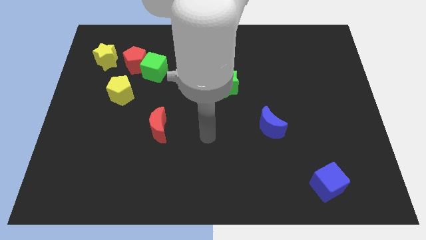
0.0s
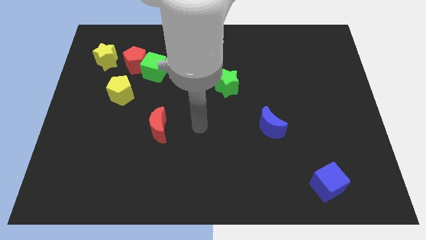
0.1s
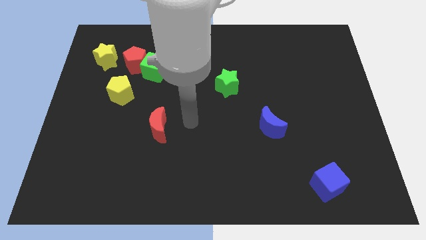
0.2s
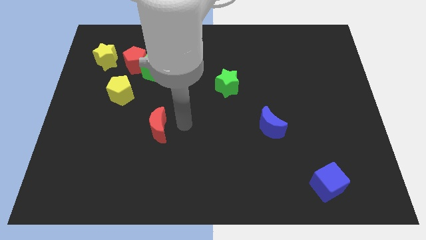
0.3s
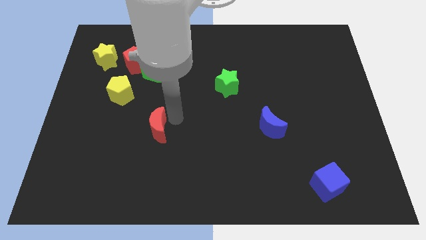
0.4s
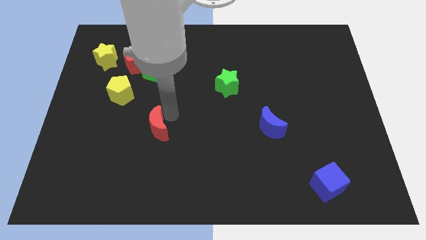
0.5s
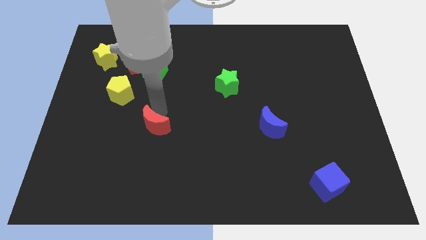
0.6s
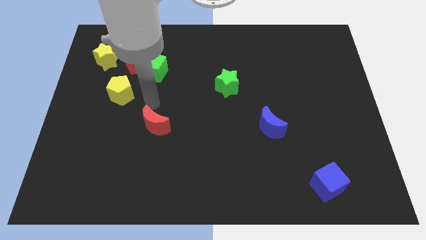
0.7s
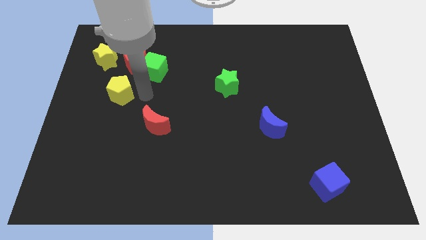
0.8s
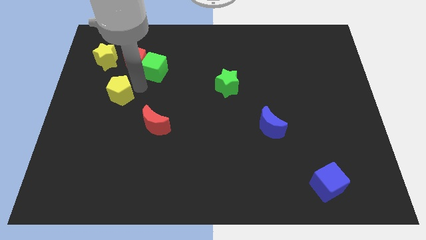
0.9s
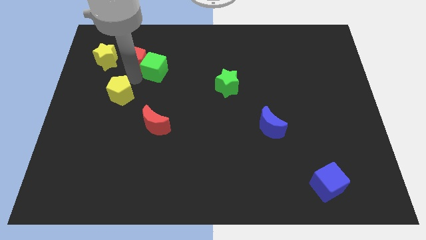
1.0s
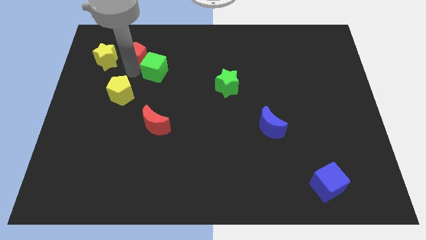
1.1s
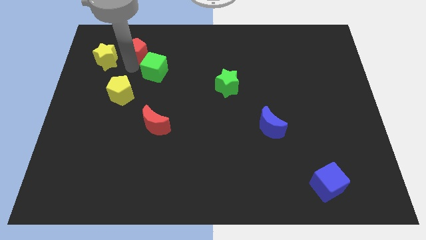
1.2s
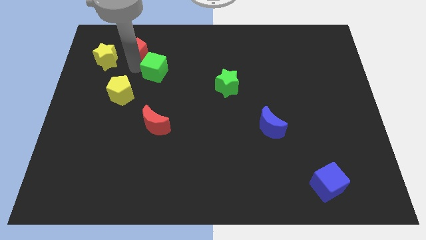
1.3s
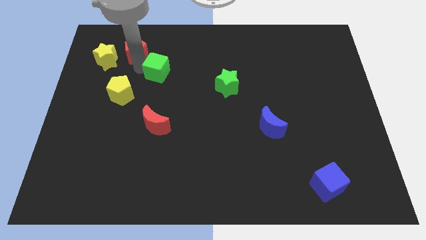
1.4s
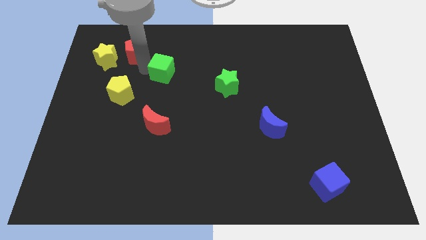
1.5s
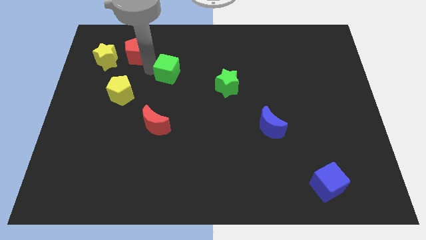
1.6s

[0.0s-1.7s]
separate the green cube from the red pentagon

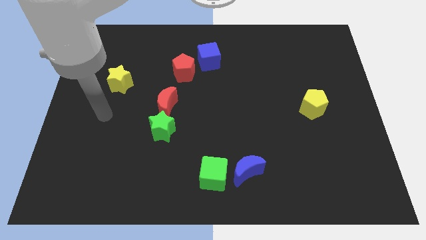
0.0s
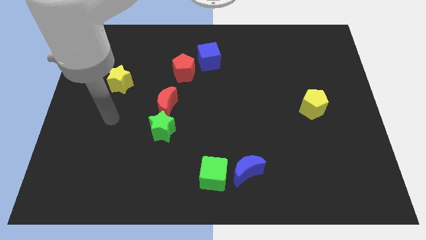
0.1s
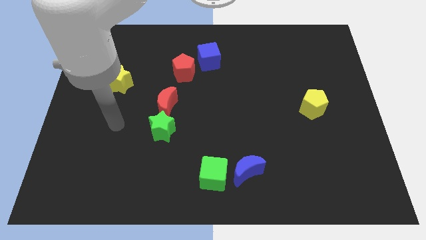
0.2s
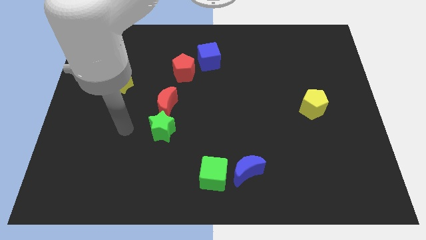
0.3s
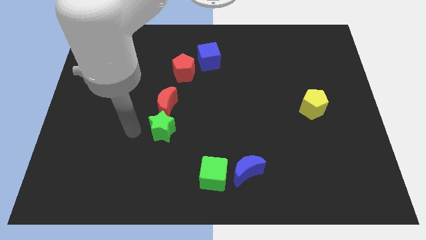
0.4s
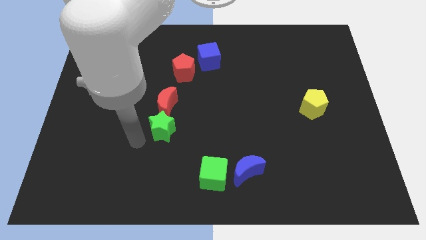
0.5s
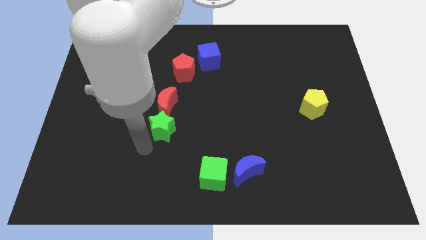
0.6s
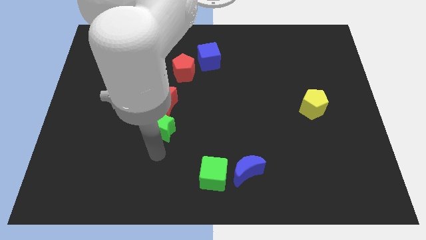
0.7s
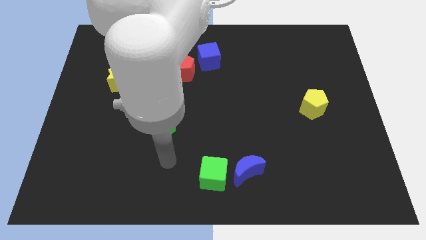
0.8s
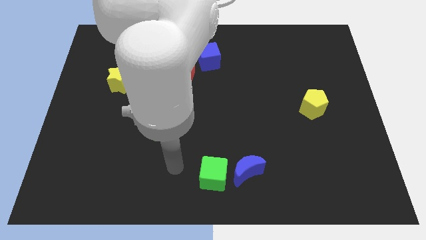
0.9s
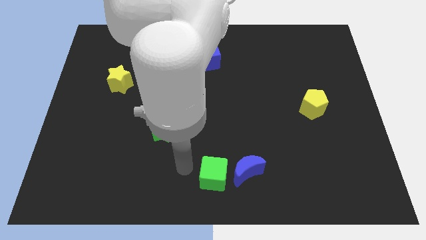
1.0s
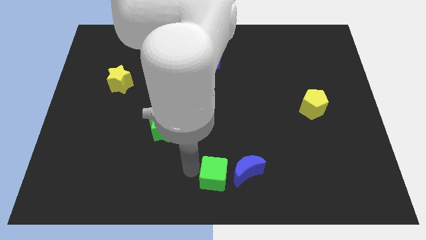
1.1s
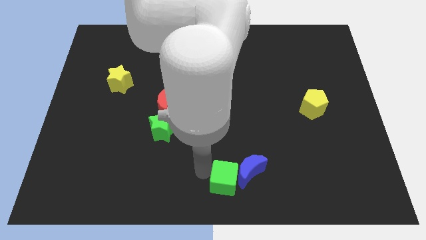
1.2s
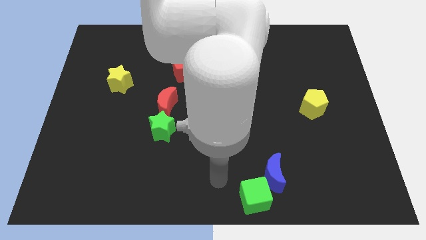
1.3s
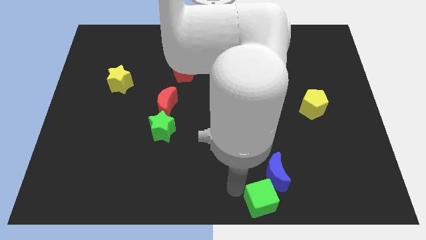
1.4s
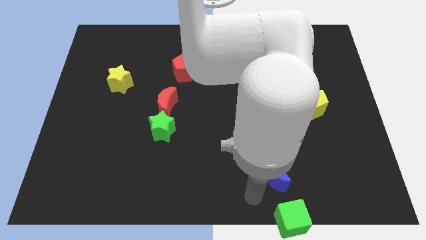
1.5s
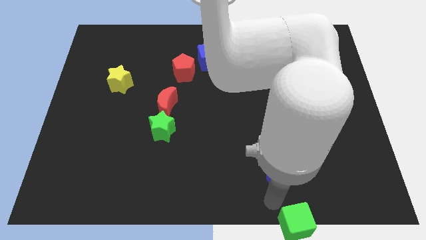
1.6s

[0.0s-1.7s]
separate the blue moon from the green cube

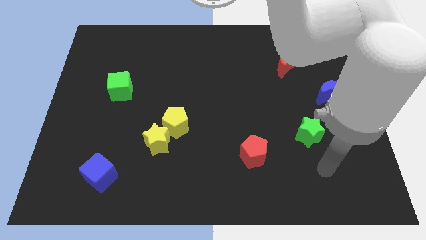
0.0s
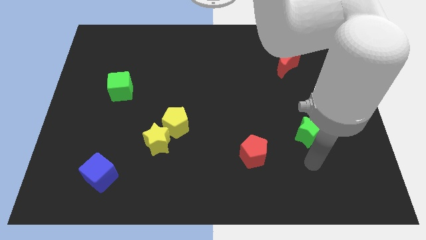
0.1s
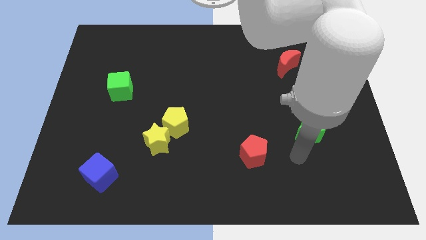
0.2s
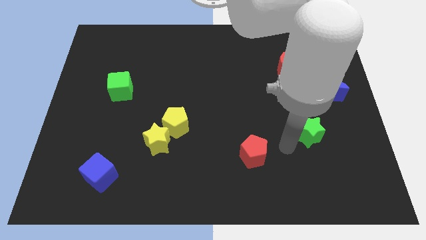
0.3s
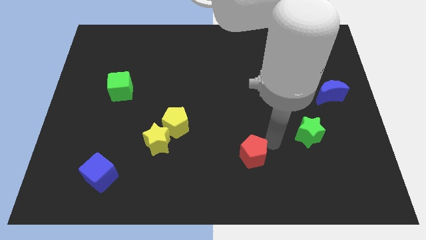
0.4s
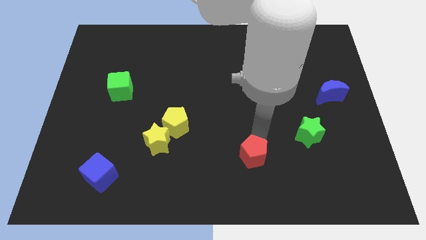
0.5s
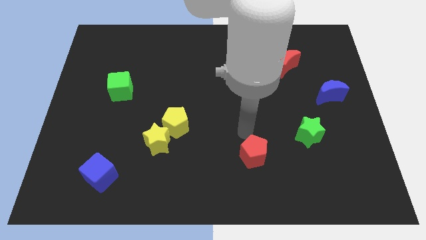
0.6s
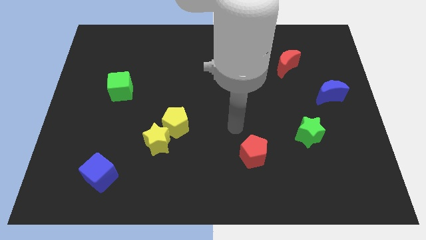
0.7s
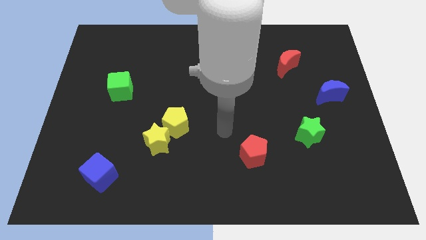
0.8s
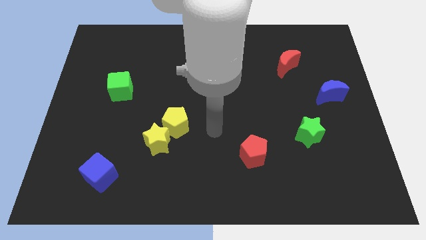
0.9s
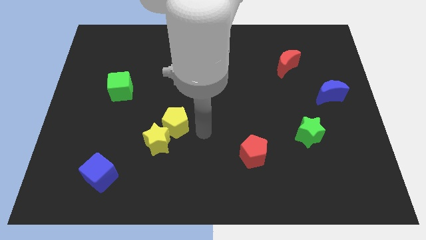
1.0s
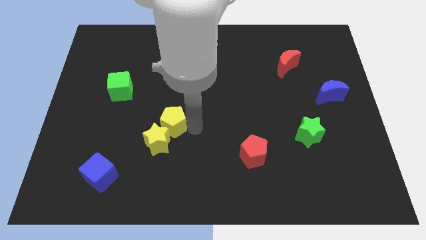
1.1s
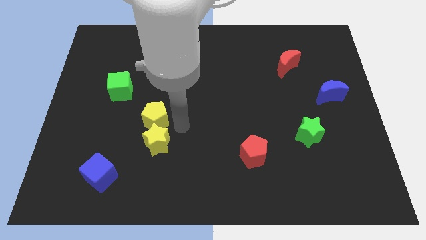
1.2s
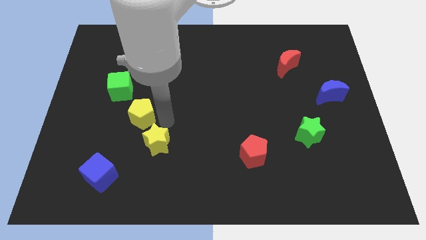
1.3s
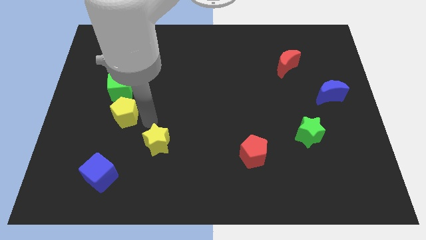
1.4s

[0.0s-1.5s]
move the yellow star away from the yellow pentagon

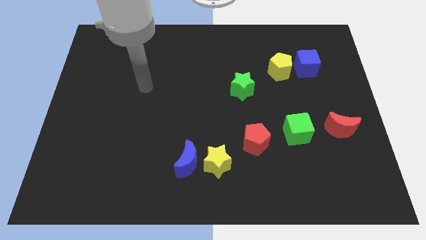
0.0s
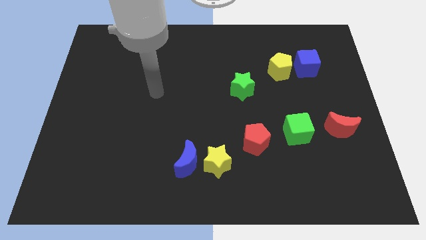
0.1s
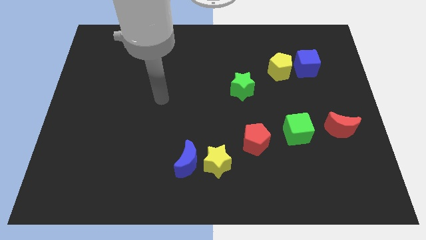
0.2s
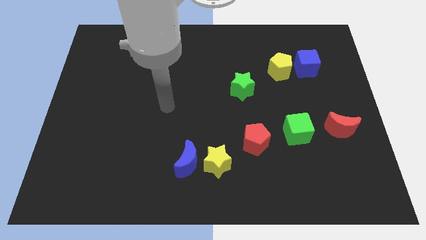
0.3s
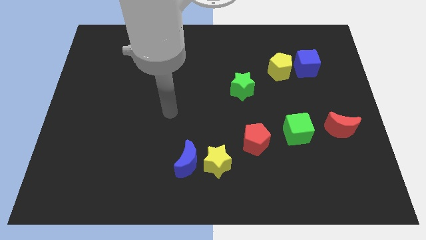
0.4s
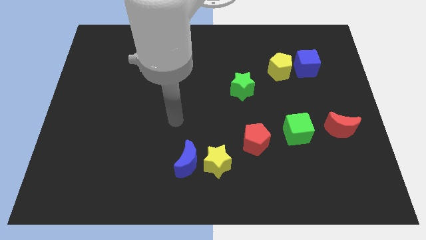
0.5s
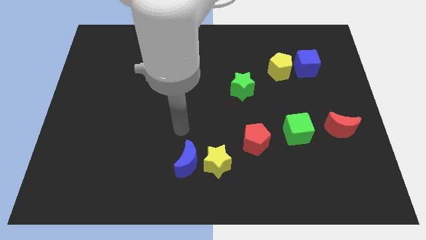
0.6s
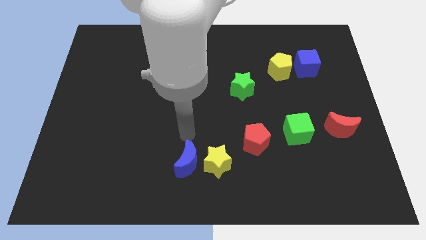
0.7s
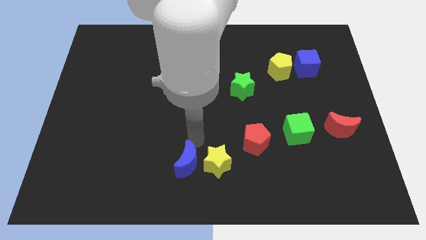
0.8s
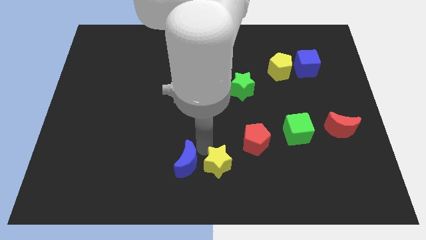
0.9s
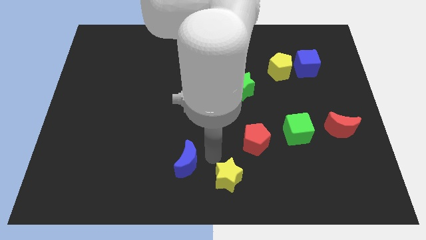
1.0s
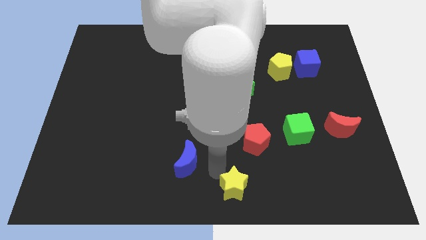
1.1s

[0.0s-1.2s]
move the blue moon away from the yellow star

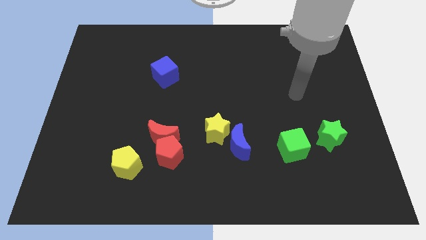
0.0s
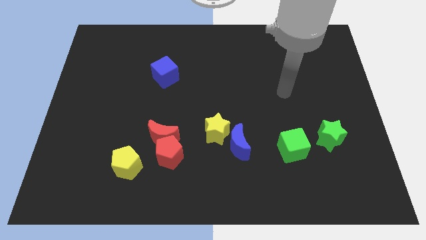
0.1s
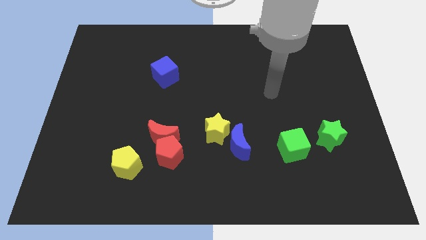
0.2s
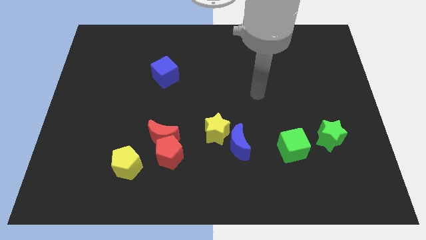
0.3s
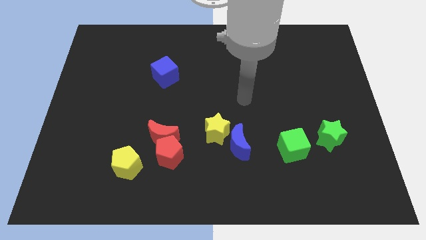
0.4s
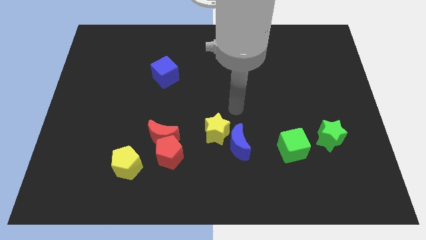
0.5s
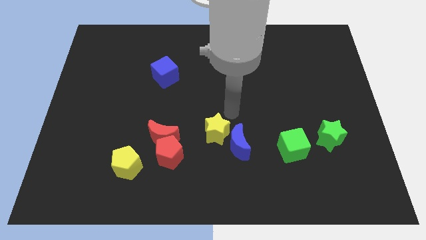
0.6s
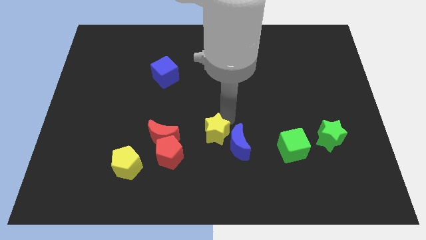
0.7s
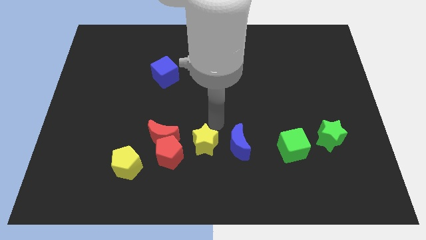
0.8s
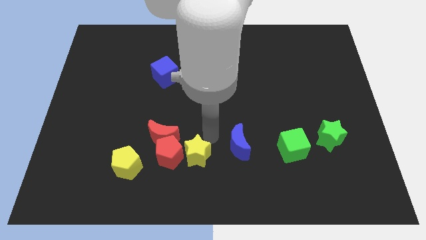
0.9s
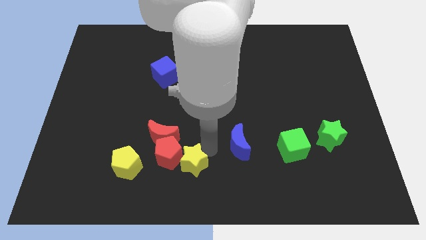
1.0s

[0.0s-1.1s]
pull the blue moon apart from the yellow star

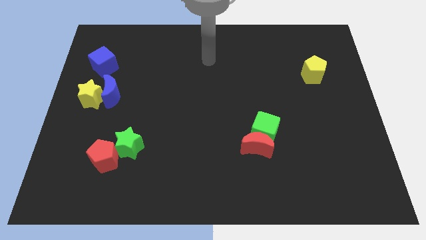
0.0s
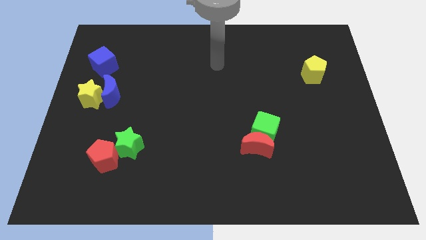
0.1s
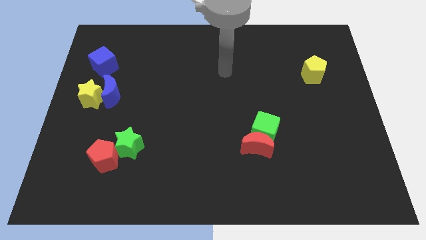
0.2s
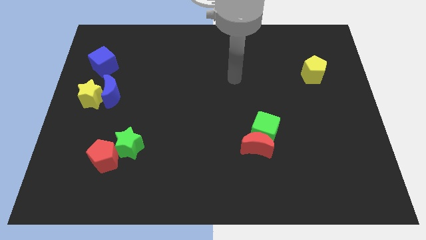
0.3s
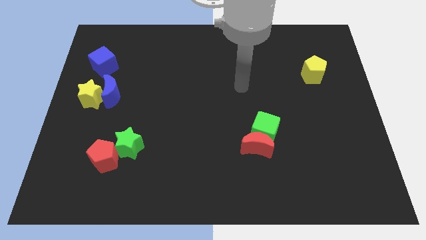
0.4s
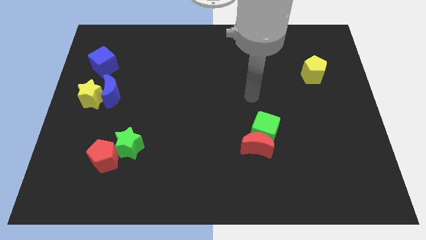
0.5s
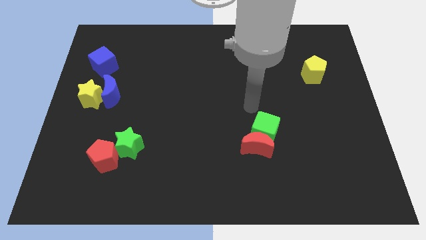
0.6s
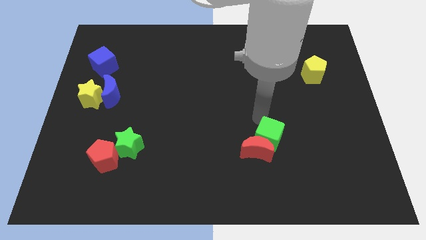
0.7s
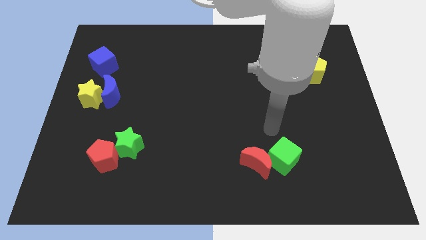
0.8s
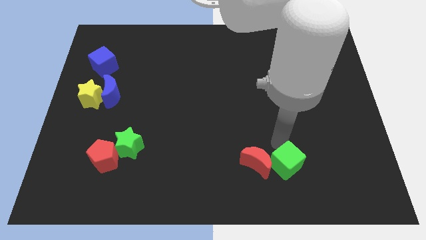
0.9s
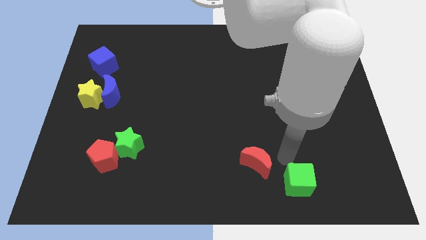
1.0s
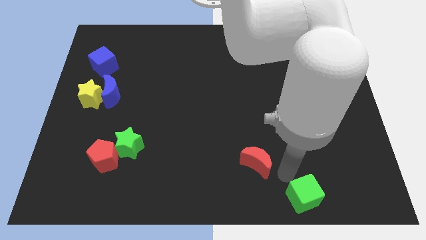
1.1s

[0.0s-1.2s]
pull the red moon apart from the green cube

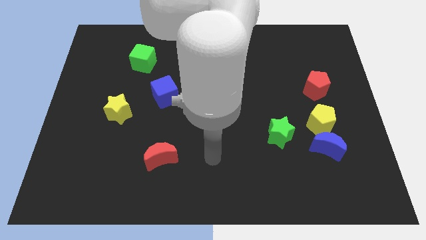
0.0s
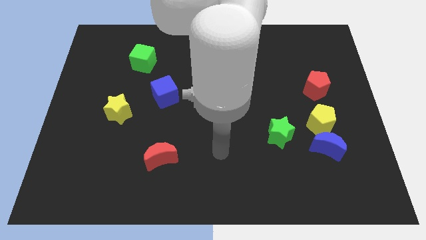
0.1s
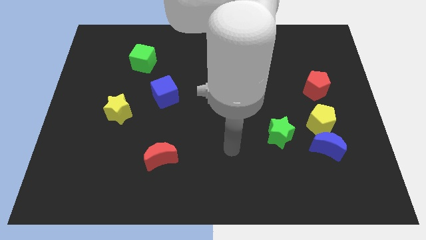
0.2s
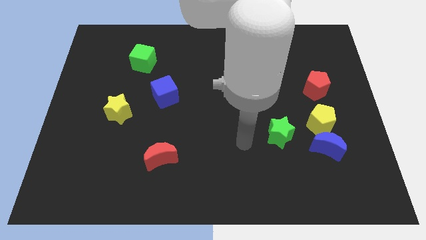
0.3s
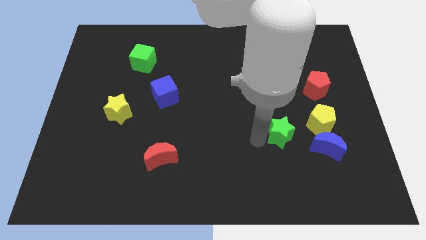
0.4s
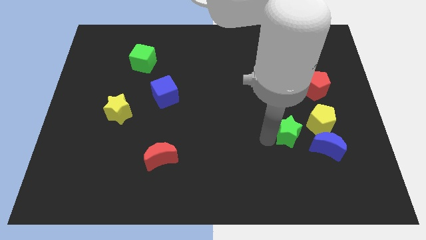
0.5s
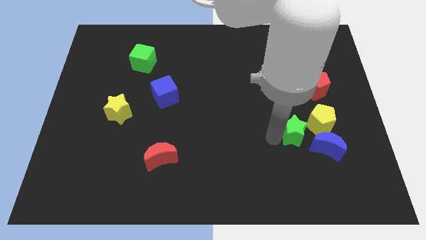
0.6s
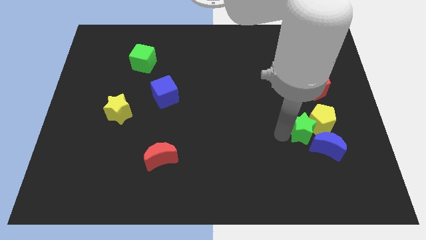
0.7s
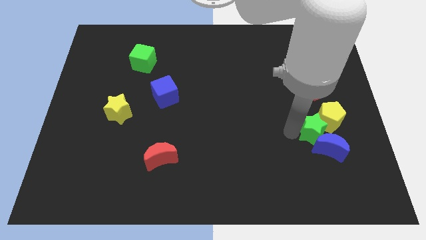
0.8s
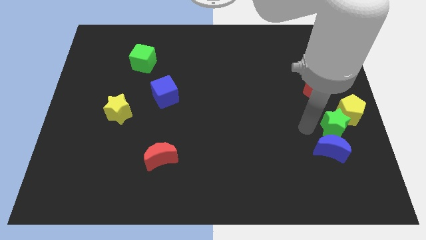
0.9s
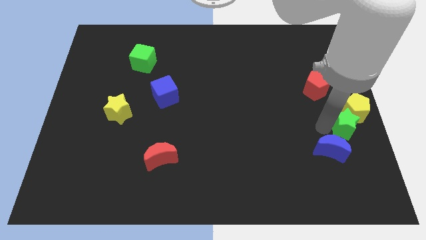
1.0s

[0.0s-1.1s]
move the blue moon away from the yellow pentagon and green star
